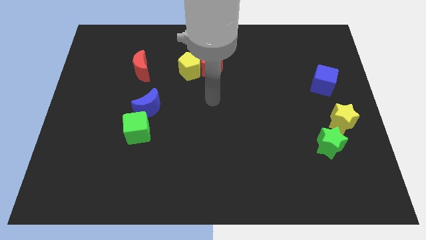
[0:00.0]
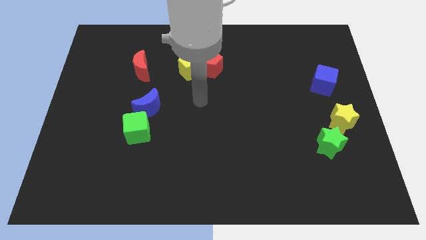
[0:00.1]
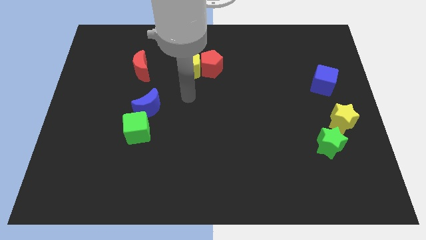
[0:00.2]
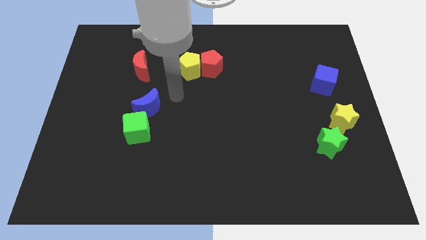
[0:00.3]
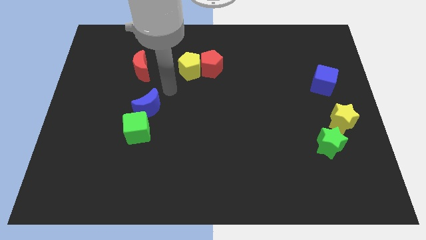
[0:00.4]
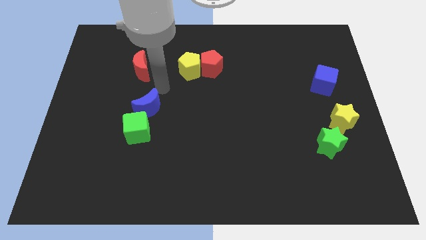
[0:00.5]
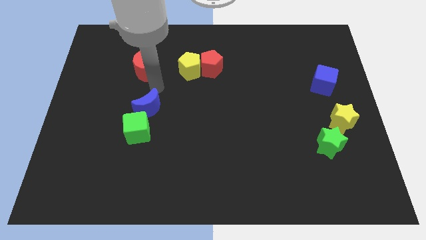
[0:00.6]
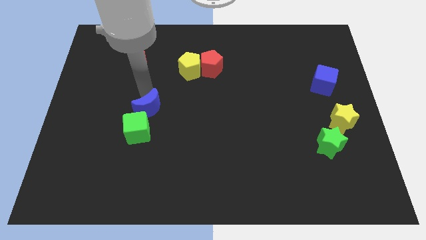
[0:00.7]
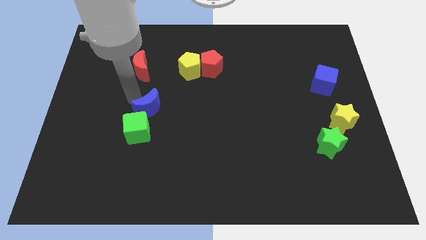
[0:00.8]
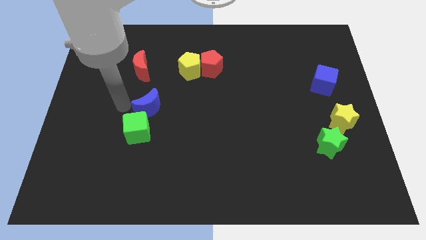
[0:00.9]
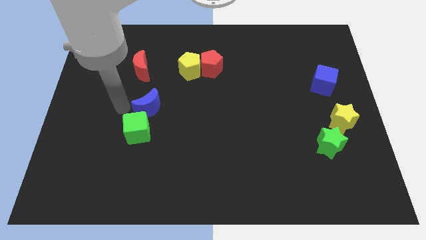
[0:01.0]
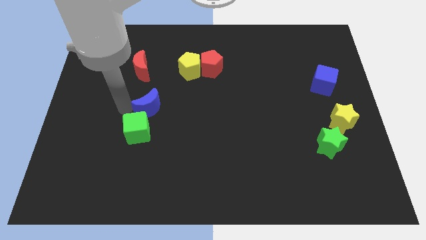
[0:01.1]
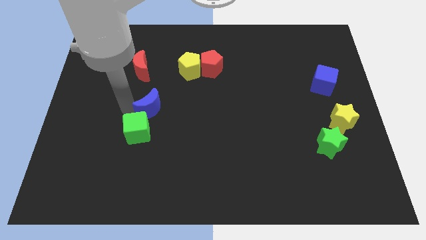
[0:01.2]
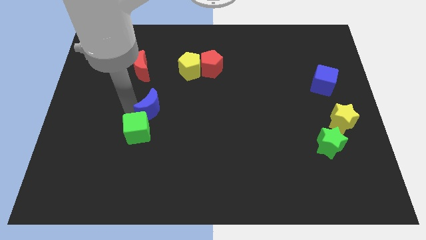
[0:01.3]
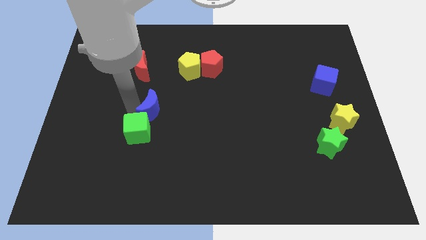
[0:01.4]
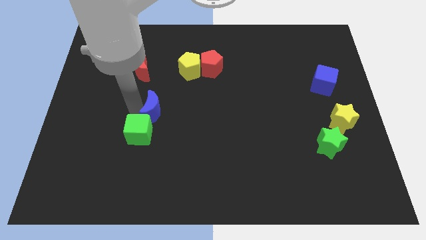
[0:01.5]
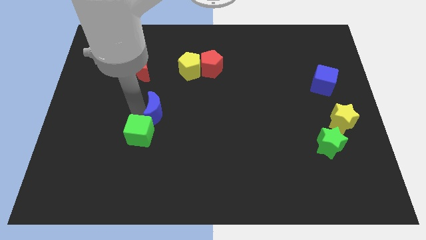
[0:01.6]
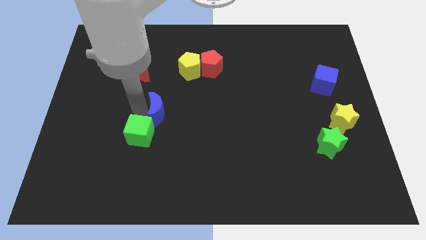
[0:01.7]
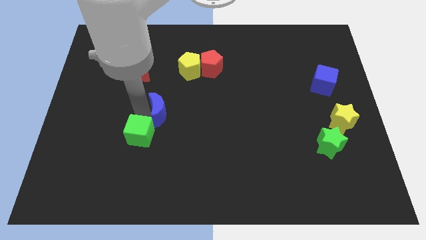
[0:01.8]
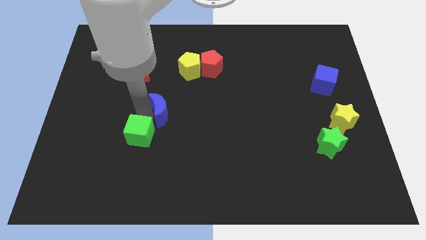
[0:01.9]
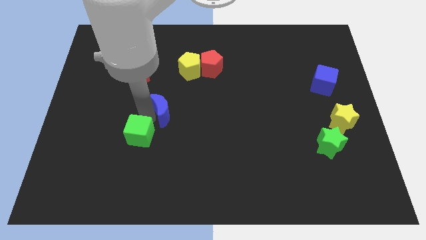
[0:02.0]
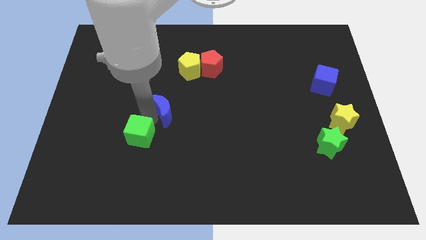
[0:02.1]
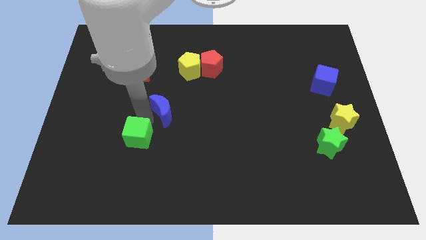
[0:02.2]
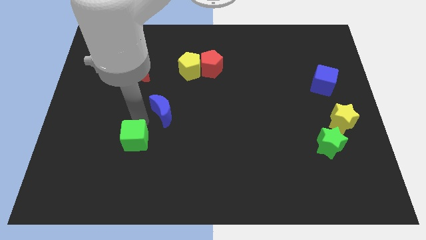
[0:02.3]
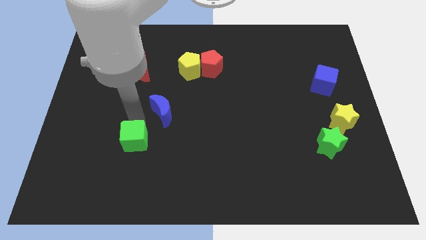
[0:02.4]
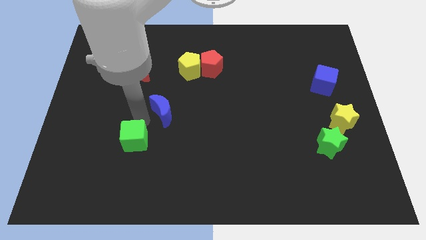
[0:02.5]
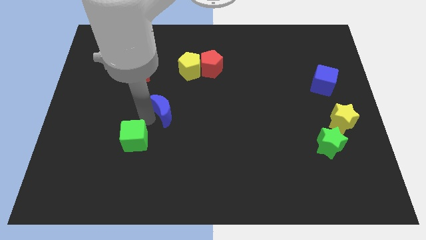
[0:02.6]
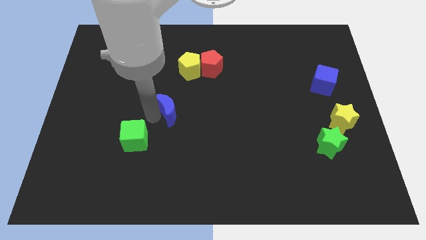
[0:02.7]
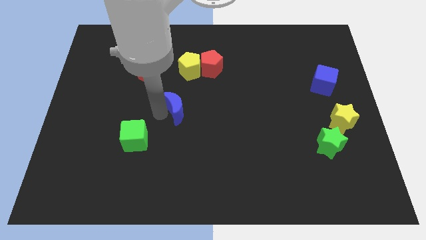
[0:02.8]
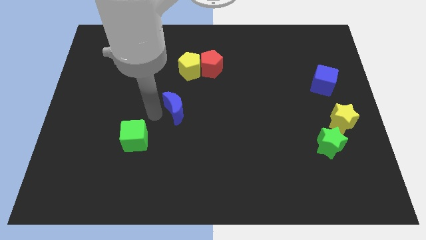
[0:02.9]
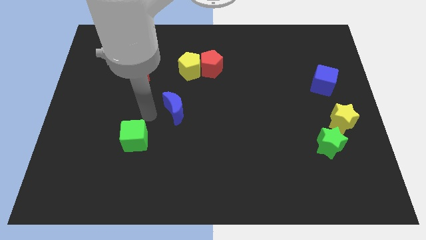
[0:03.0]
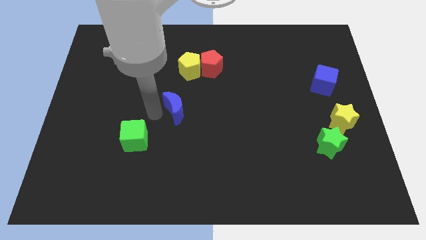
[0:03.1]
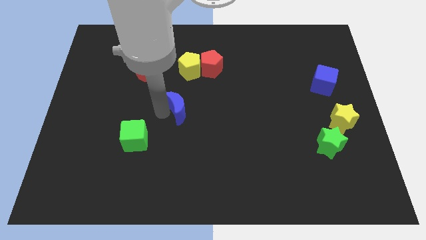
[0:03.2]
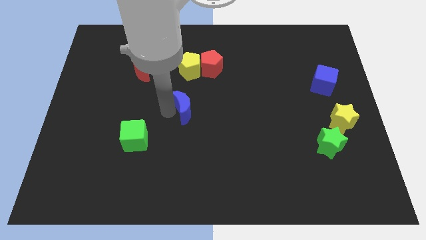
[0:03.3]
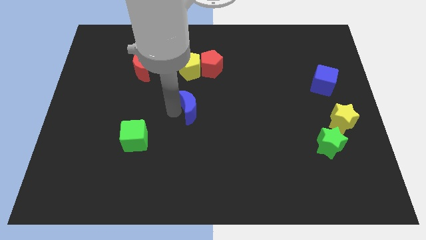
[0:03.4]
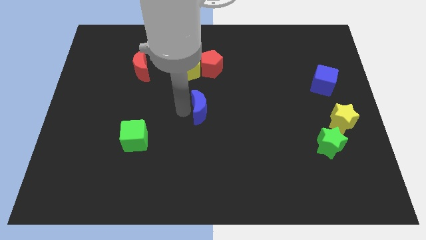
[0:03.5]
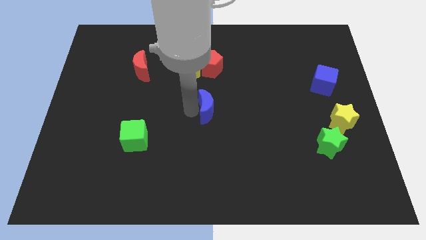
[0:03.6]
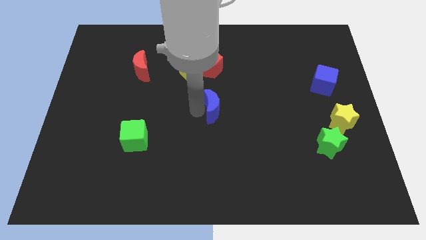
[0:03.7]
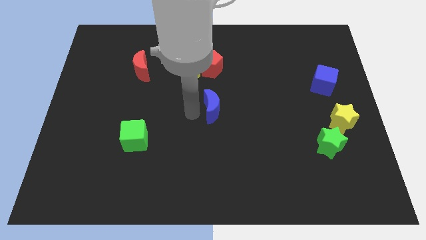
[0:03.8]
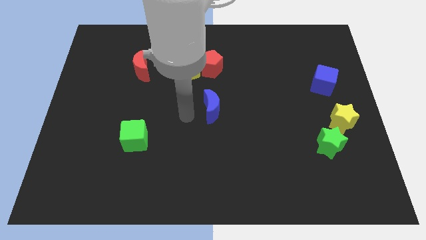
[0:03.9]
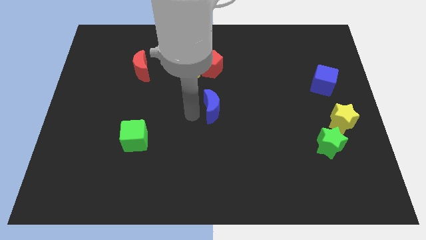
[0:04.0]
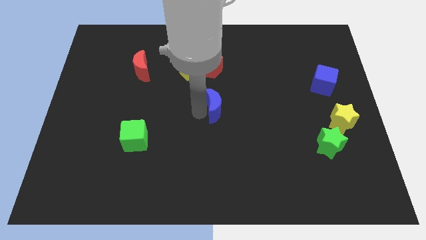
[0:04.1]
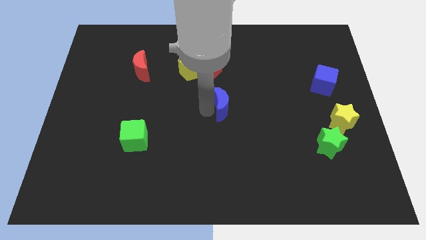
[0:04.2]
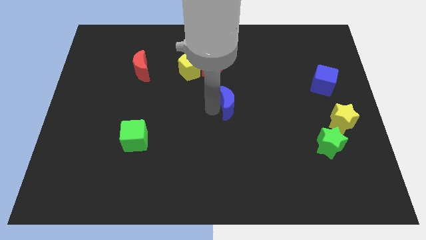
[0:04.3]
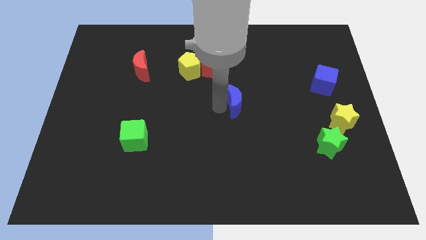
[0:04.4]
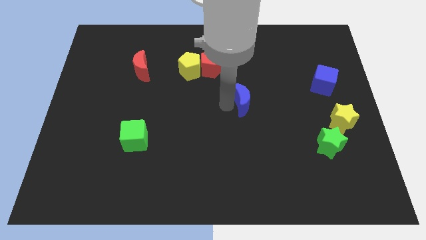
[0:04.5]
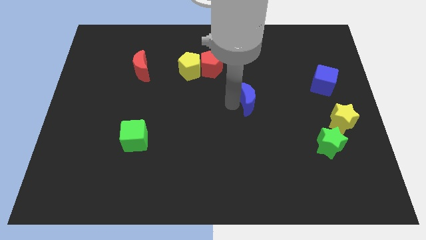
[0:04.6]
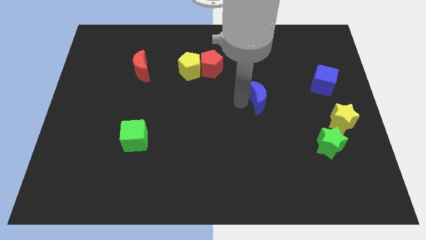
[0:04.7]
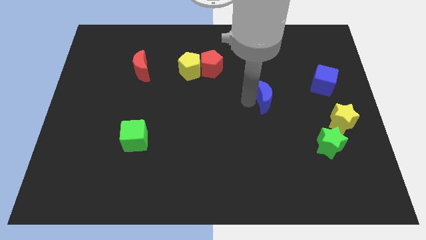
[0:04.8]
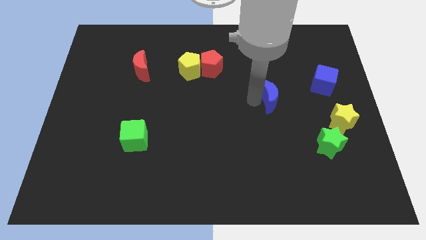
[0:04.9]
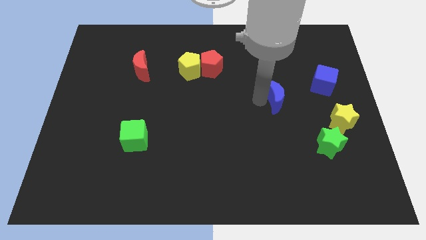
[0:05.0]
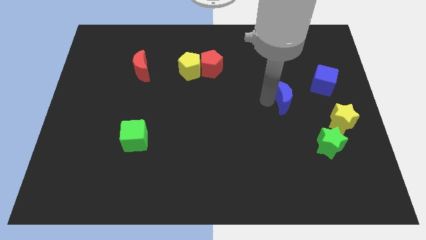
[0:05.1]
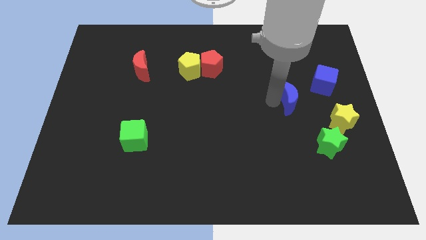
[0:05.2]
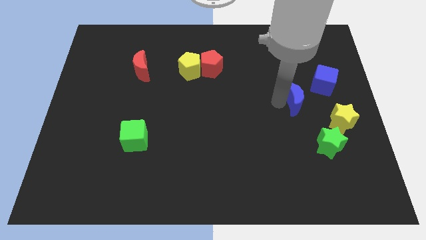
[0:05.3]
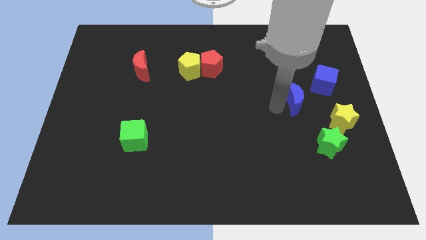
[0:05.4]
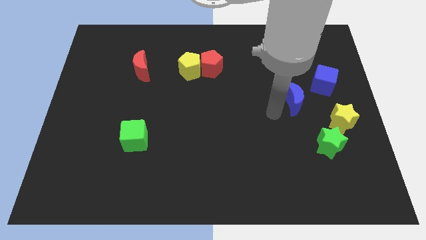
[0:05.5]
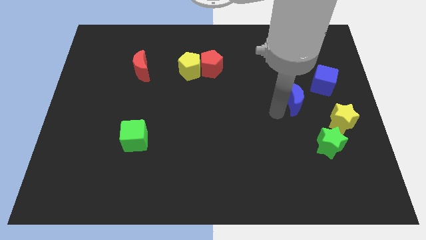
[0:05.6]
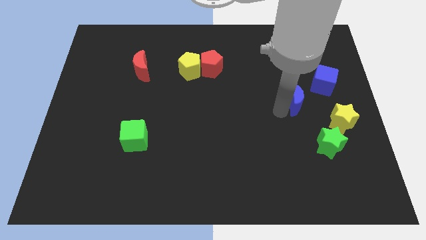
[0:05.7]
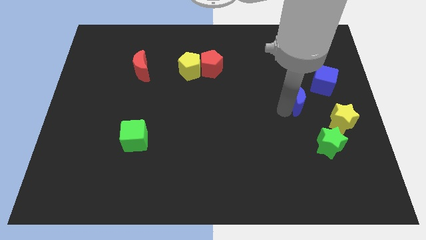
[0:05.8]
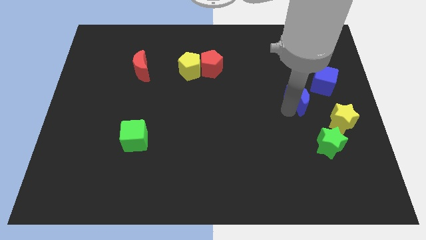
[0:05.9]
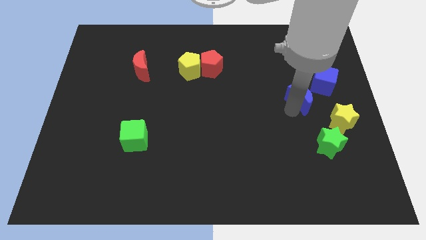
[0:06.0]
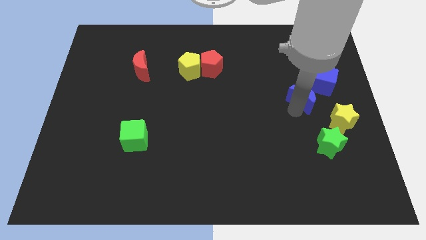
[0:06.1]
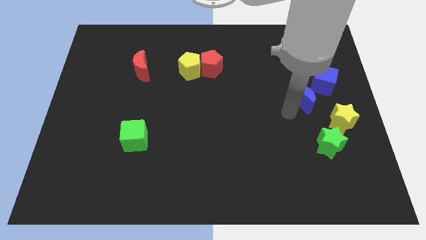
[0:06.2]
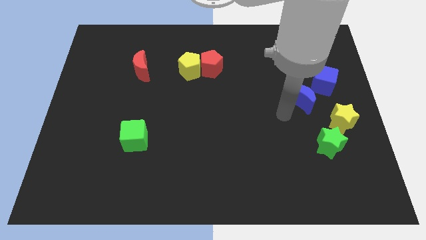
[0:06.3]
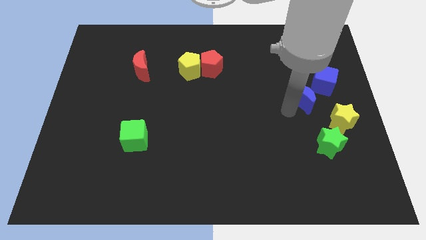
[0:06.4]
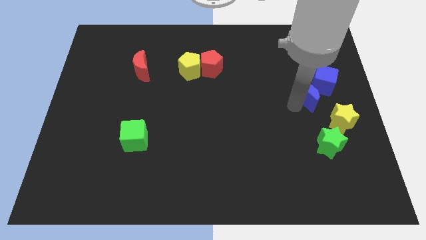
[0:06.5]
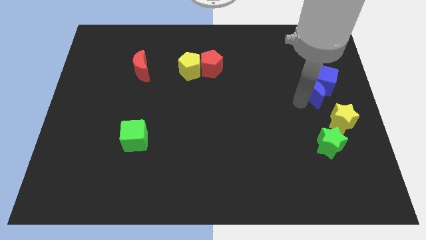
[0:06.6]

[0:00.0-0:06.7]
put the blue moon next to the blue cube

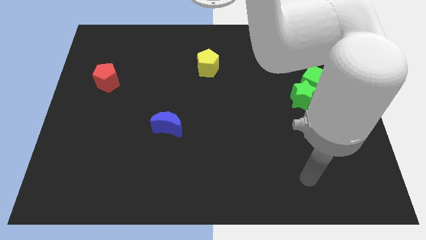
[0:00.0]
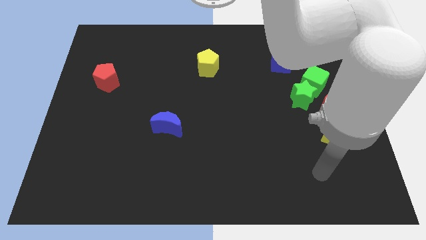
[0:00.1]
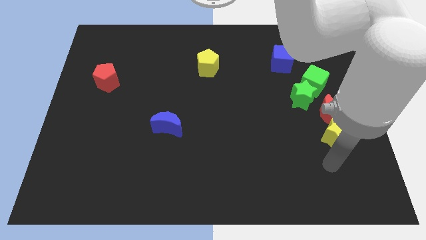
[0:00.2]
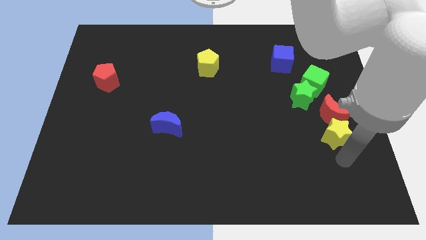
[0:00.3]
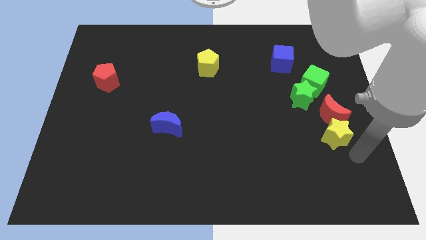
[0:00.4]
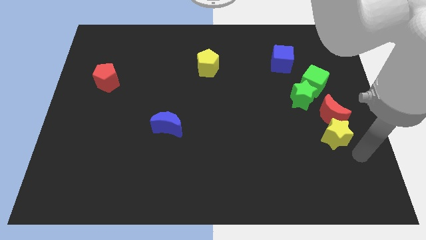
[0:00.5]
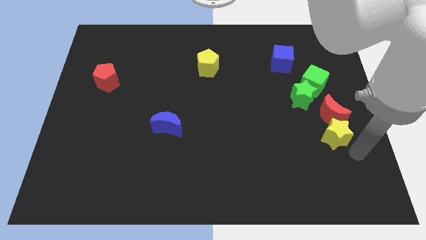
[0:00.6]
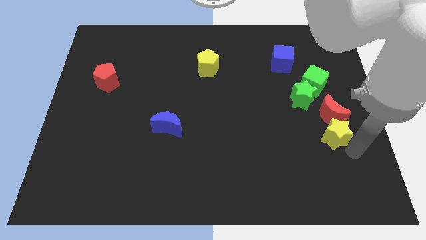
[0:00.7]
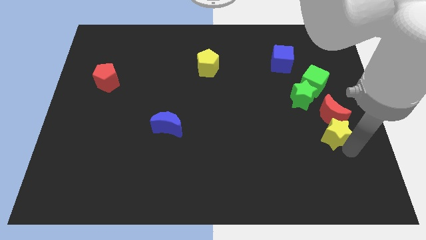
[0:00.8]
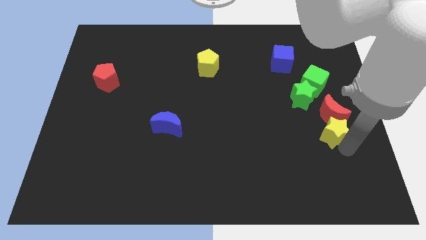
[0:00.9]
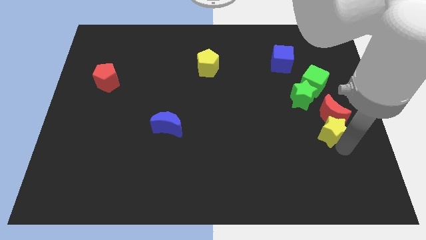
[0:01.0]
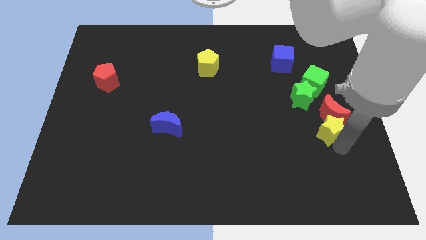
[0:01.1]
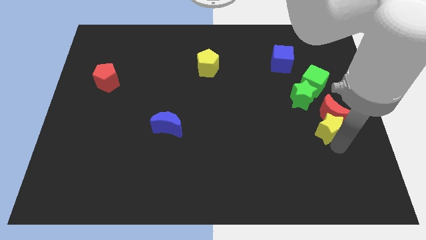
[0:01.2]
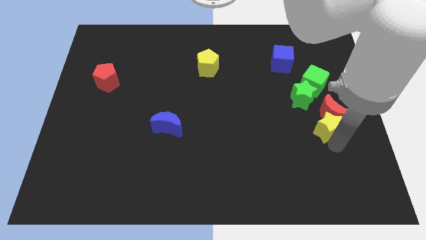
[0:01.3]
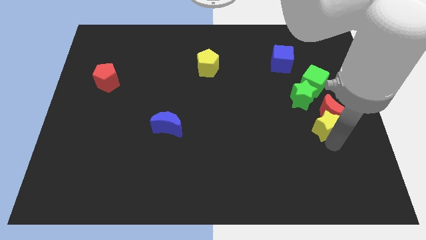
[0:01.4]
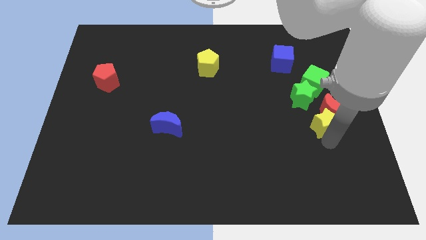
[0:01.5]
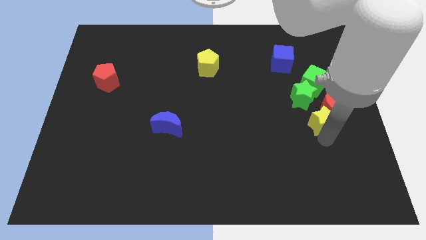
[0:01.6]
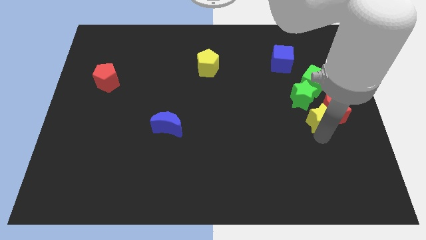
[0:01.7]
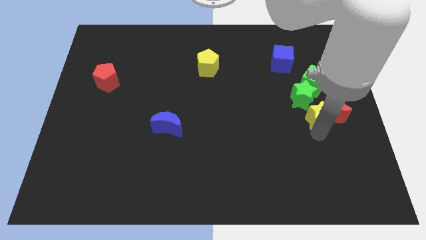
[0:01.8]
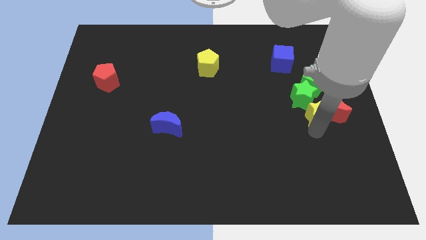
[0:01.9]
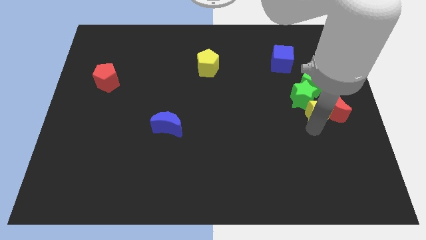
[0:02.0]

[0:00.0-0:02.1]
slide the yellow star close to the green star
